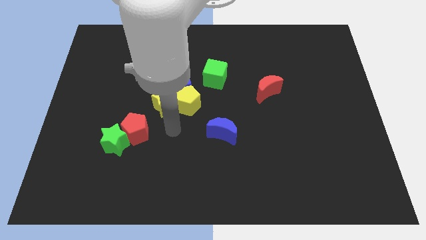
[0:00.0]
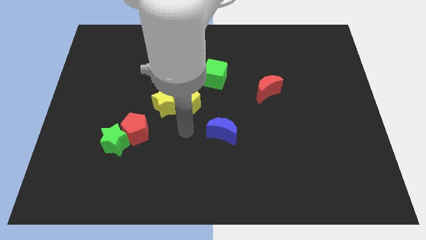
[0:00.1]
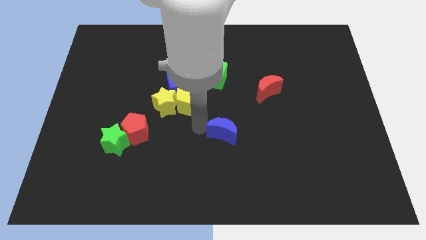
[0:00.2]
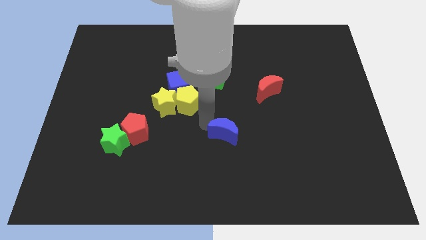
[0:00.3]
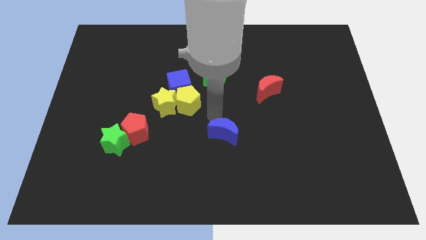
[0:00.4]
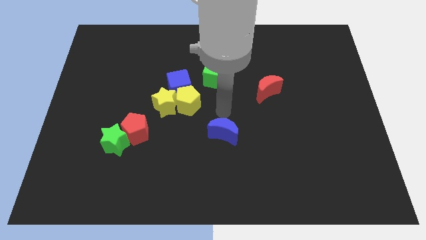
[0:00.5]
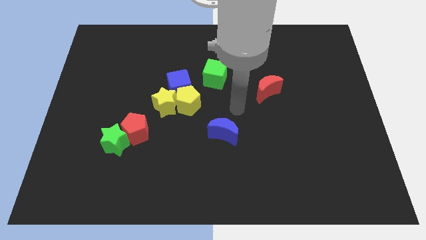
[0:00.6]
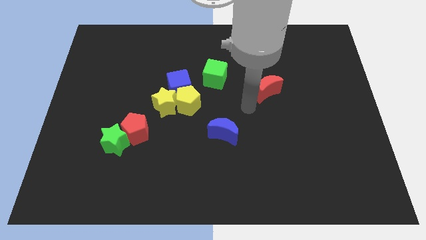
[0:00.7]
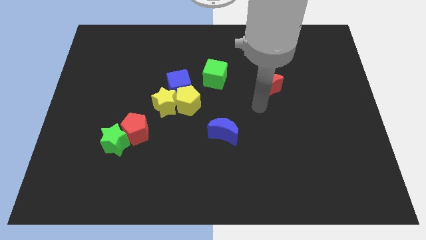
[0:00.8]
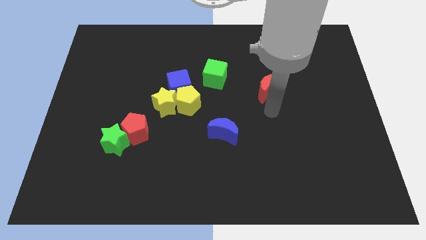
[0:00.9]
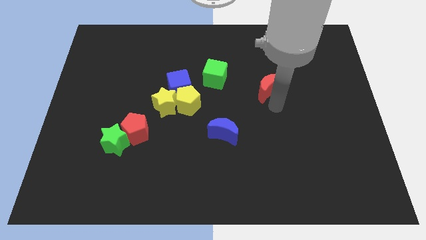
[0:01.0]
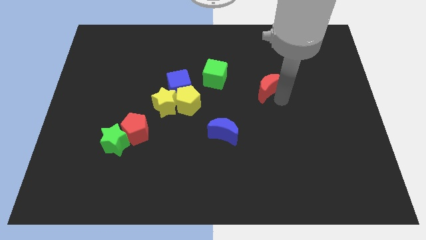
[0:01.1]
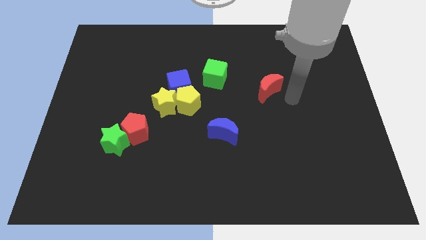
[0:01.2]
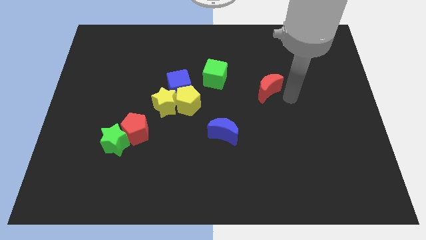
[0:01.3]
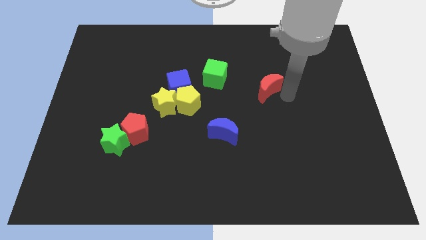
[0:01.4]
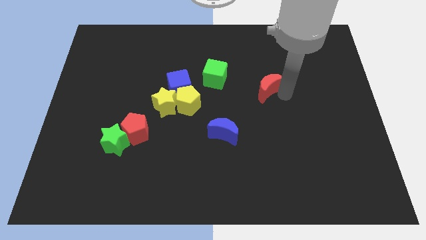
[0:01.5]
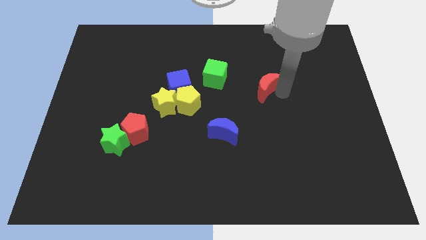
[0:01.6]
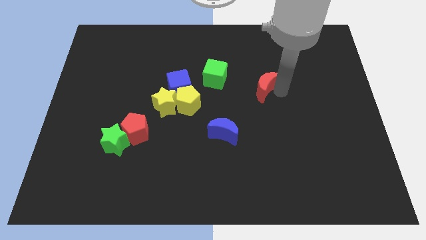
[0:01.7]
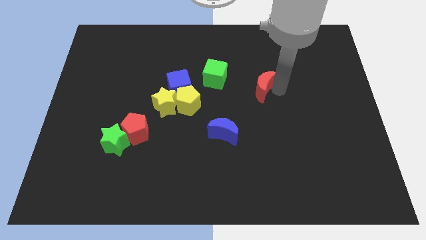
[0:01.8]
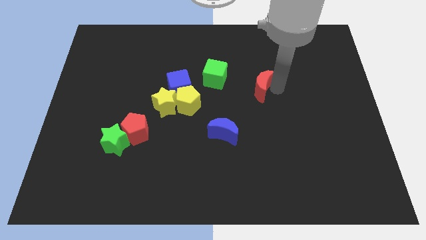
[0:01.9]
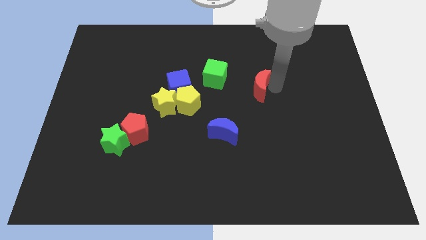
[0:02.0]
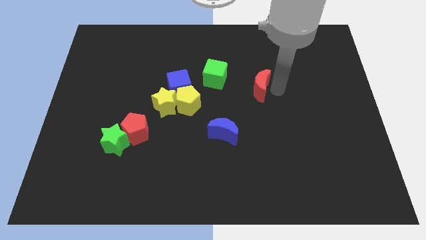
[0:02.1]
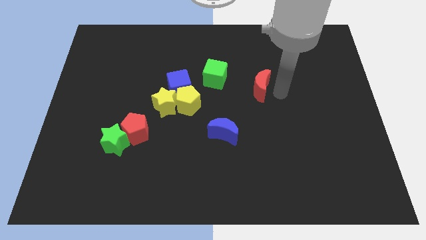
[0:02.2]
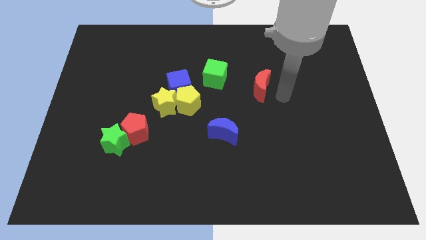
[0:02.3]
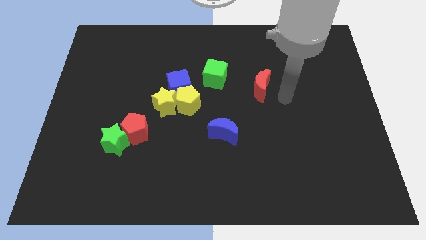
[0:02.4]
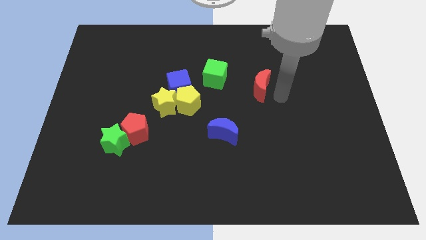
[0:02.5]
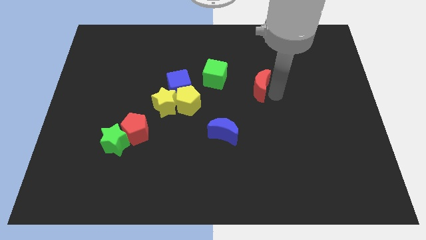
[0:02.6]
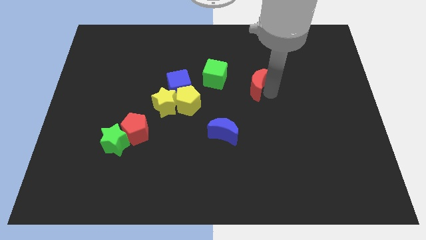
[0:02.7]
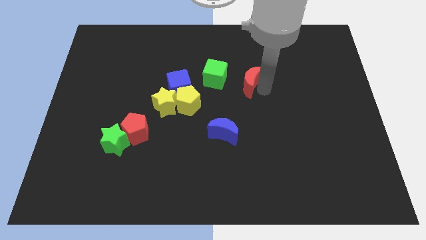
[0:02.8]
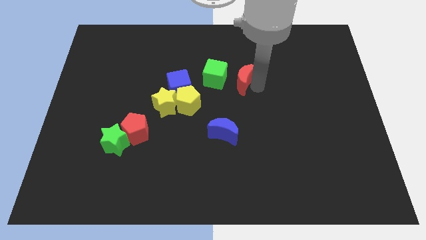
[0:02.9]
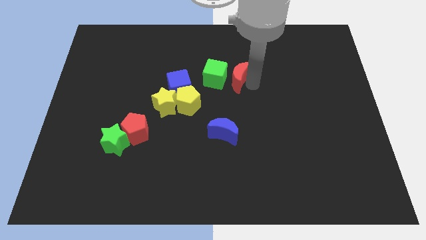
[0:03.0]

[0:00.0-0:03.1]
push the red moon towards the green cube

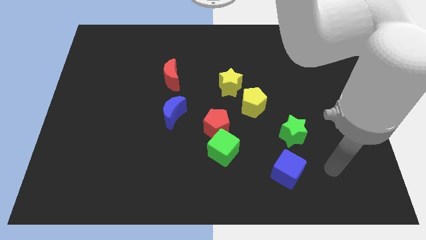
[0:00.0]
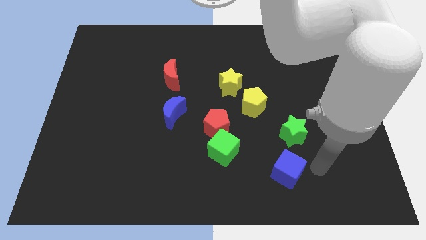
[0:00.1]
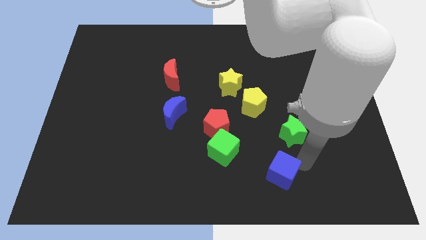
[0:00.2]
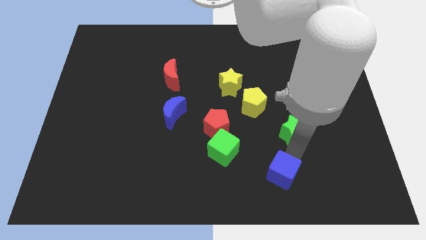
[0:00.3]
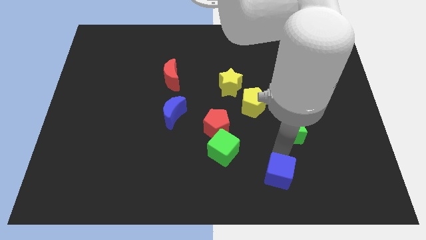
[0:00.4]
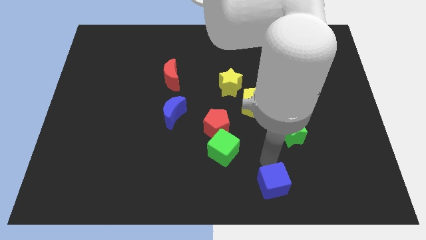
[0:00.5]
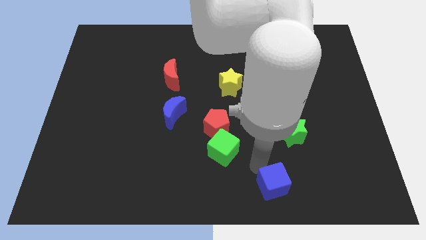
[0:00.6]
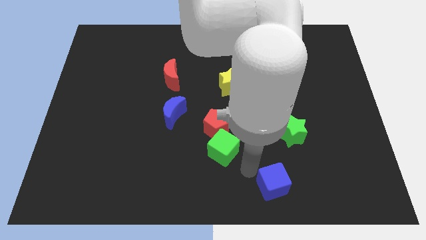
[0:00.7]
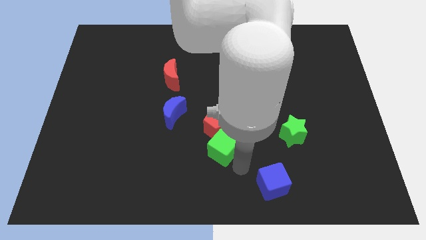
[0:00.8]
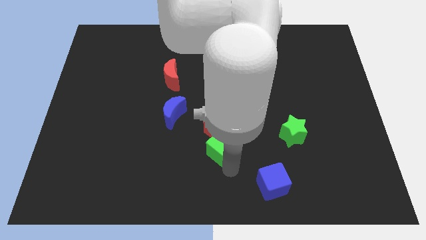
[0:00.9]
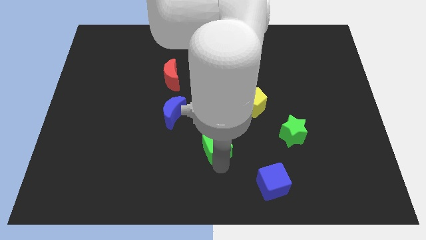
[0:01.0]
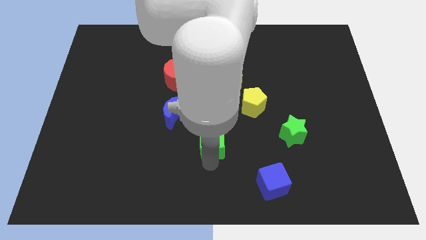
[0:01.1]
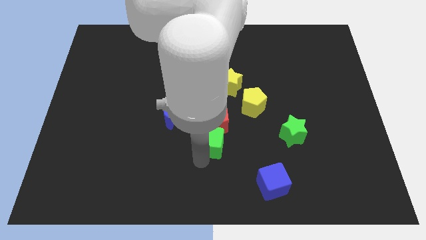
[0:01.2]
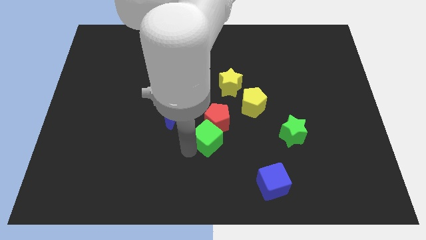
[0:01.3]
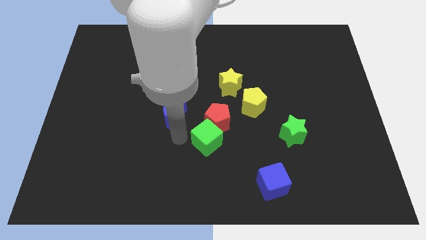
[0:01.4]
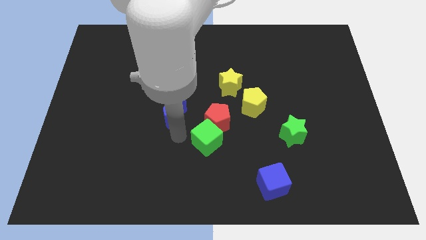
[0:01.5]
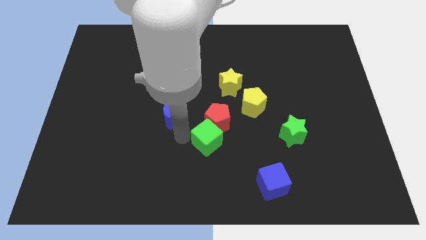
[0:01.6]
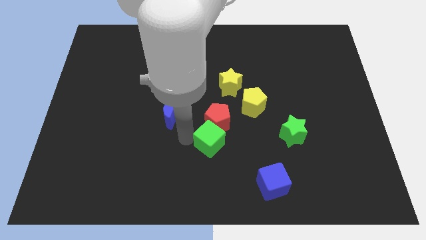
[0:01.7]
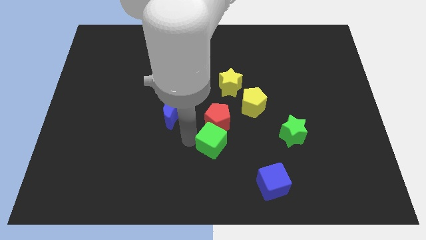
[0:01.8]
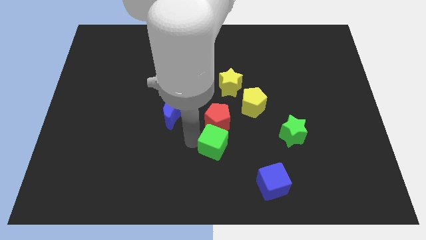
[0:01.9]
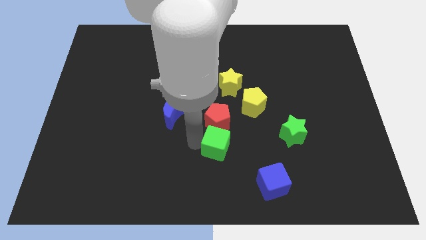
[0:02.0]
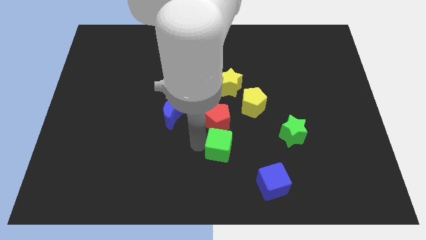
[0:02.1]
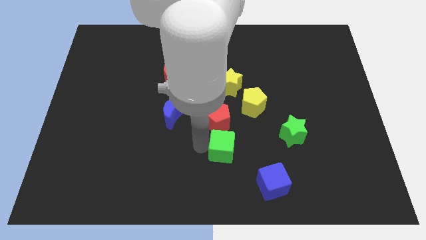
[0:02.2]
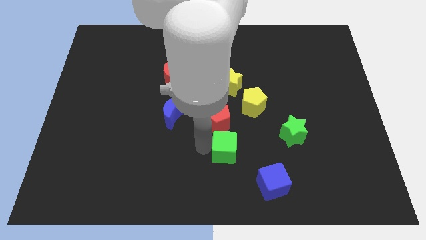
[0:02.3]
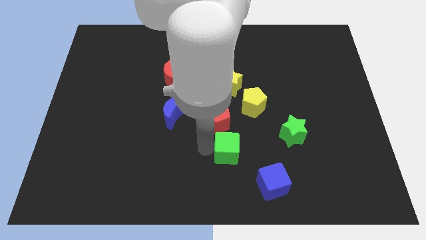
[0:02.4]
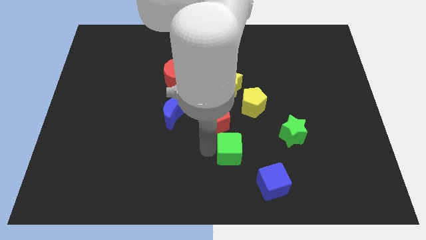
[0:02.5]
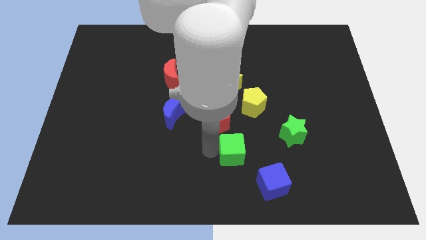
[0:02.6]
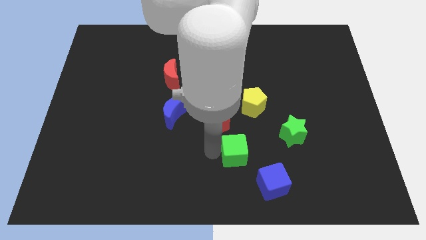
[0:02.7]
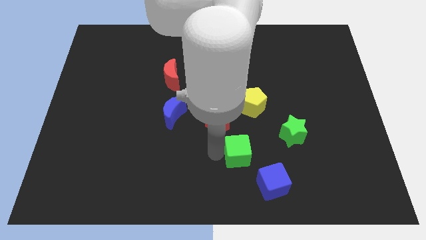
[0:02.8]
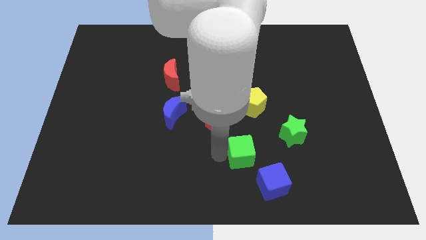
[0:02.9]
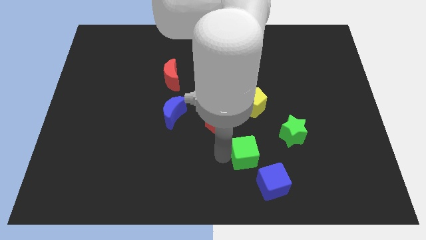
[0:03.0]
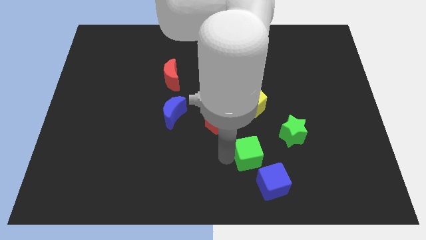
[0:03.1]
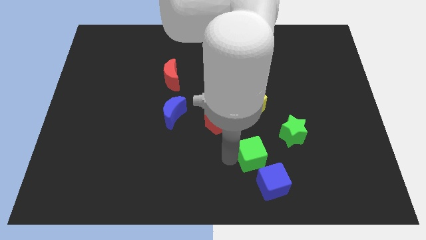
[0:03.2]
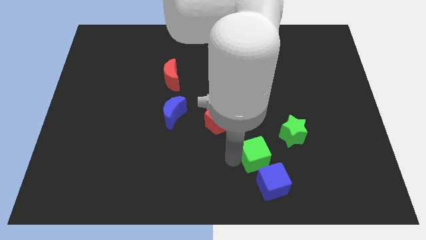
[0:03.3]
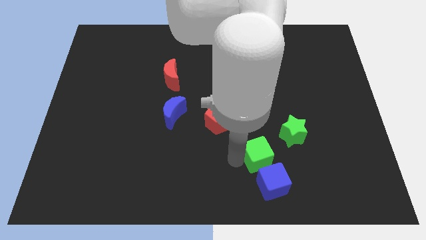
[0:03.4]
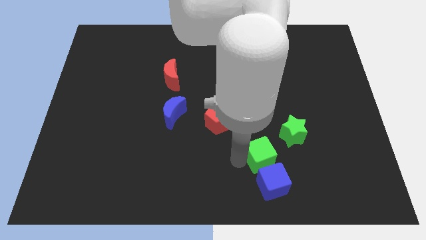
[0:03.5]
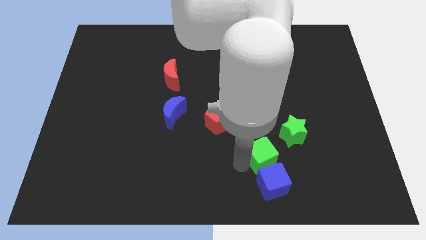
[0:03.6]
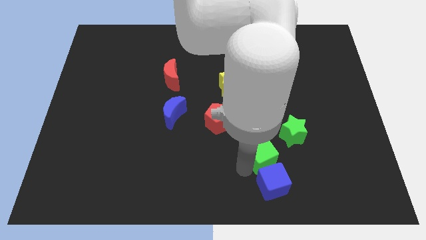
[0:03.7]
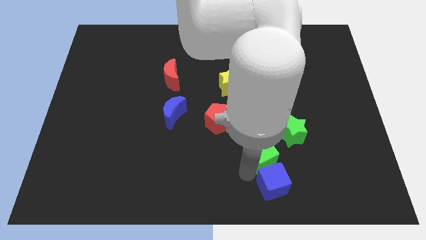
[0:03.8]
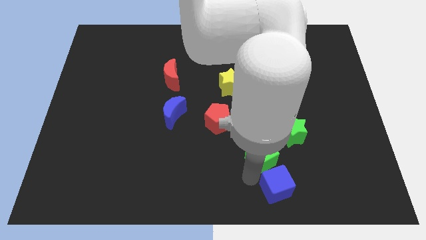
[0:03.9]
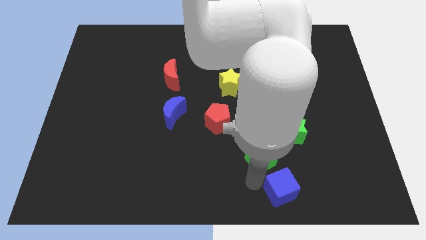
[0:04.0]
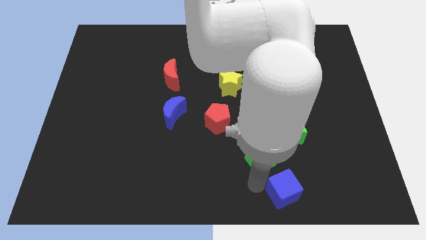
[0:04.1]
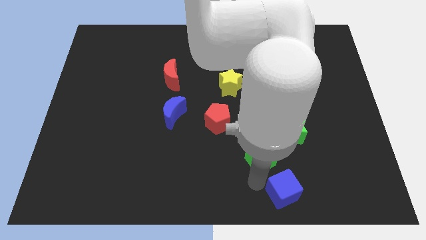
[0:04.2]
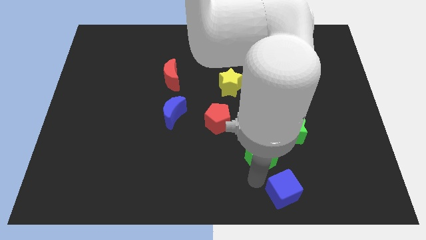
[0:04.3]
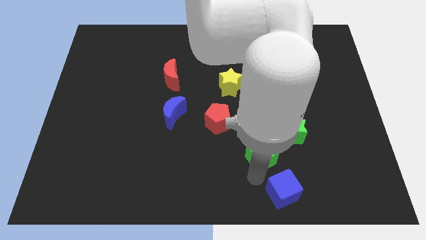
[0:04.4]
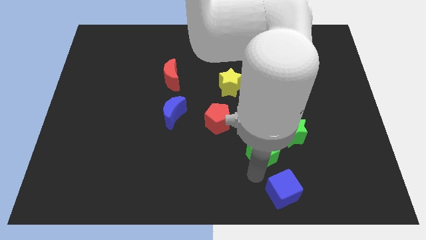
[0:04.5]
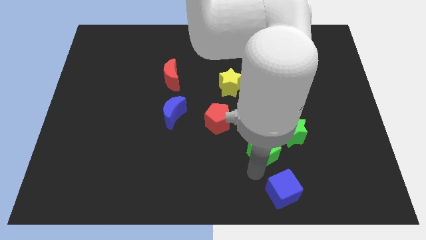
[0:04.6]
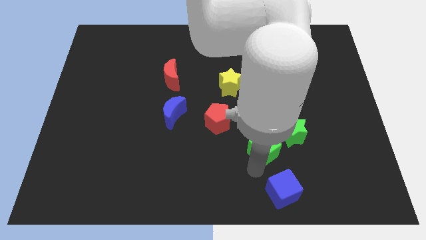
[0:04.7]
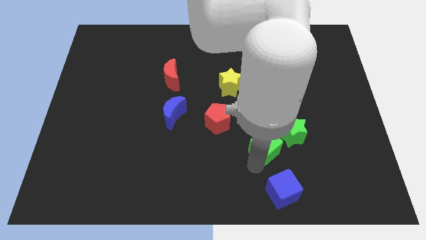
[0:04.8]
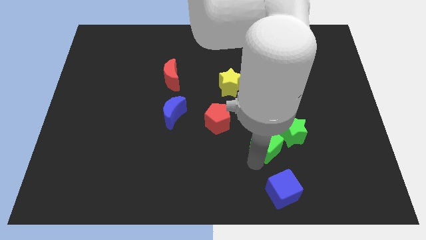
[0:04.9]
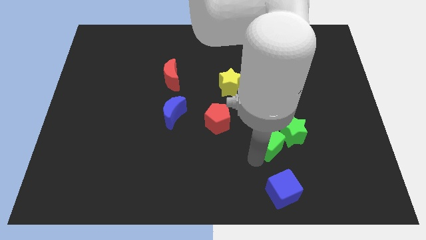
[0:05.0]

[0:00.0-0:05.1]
move the green cube close to the green star
